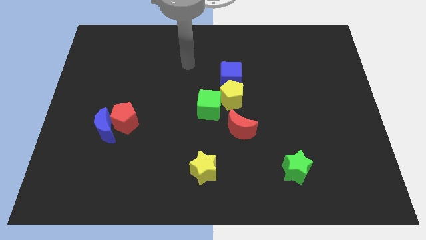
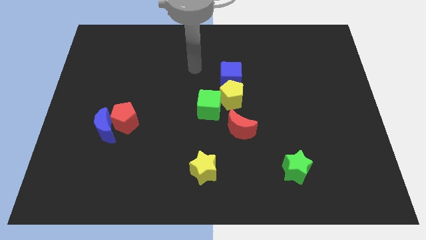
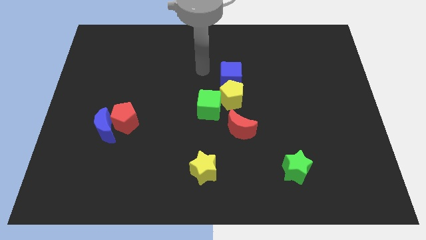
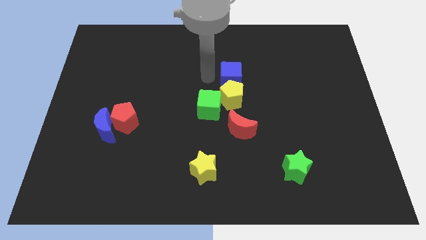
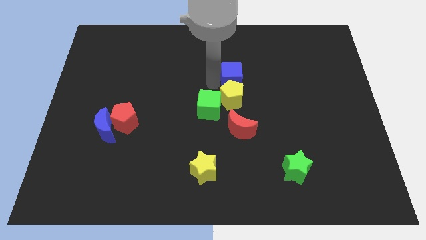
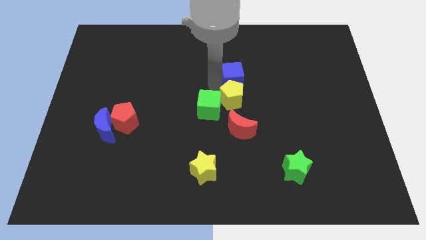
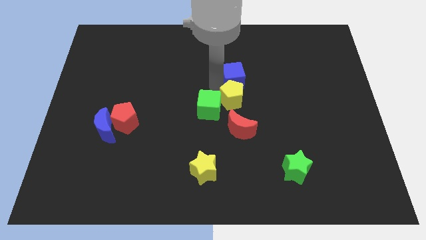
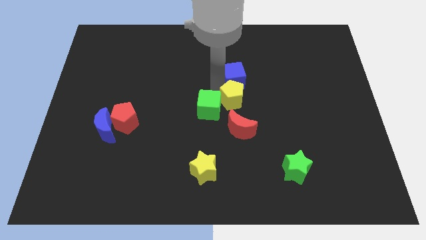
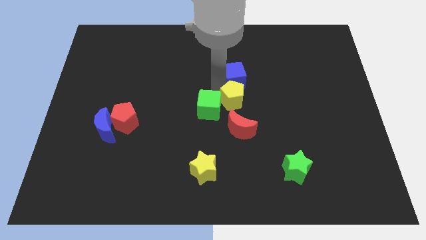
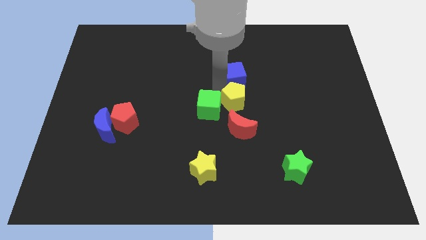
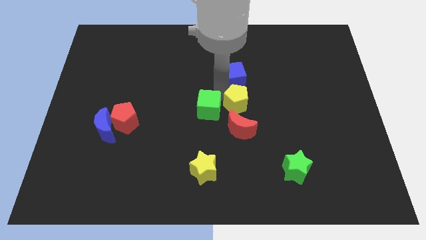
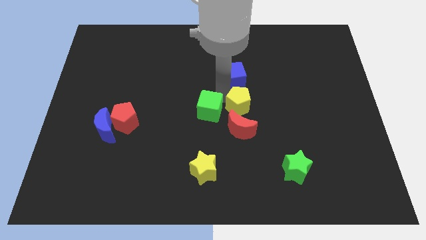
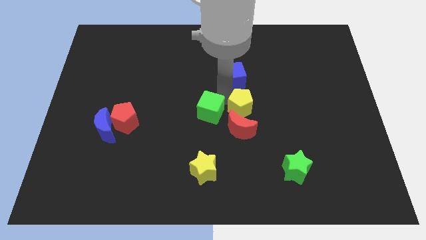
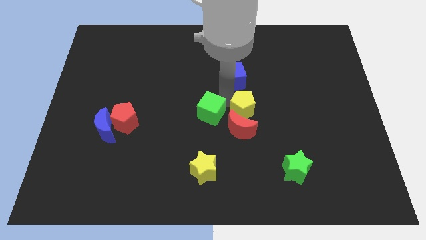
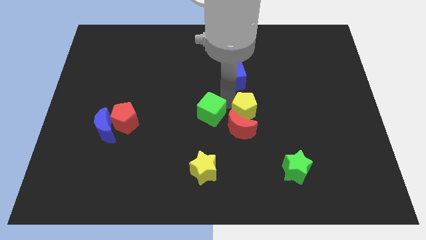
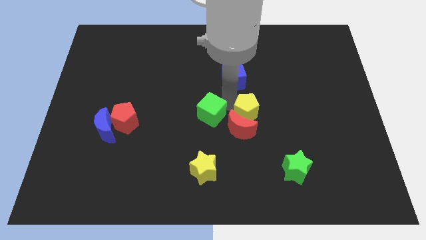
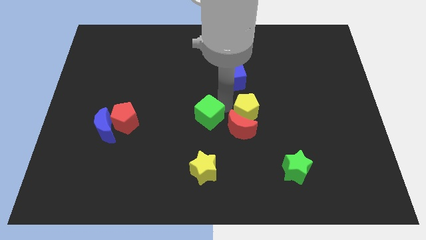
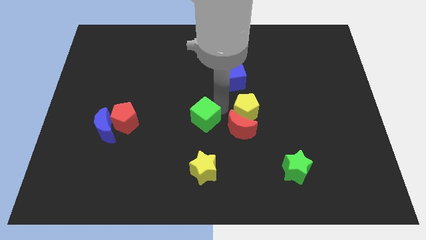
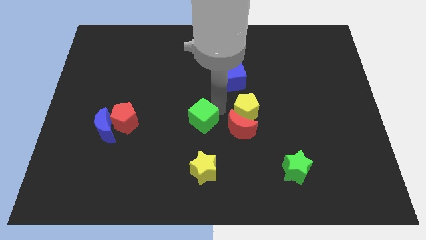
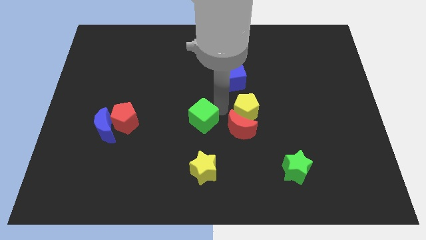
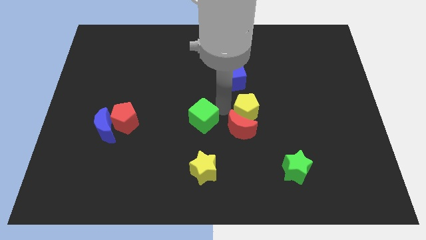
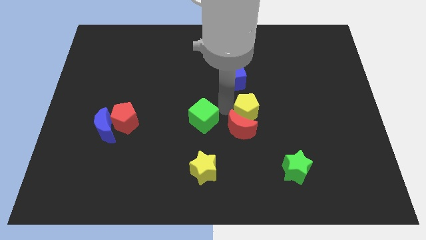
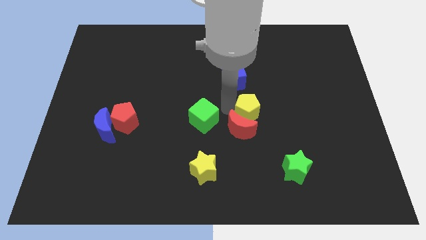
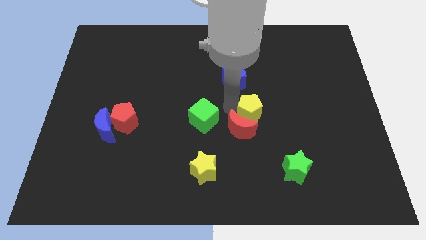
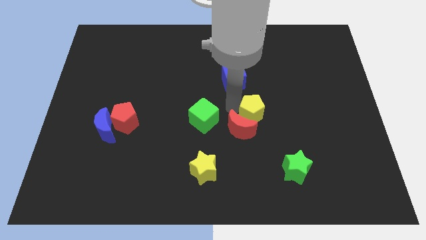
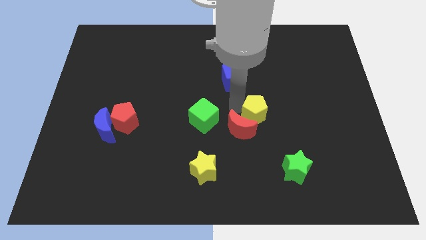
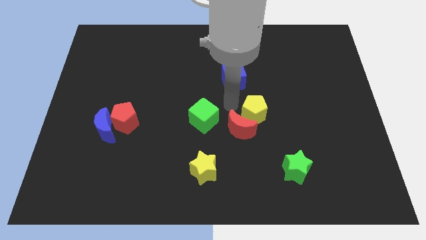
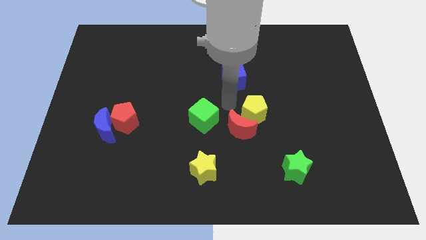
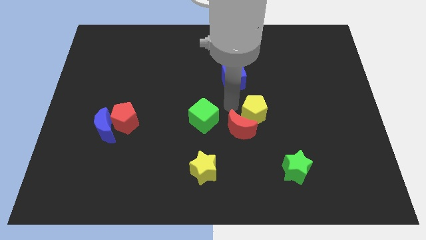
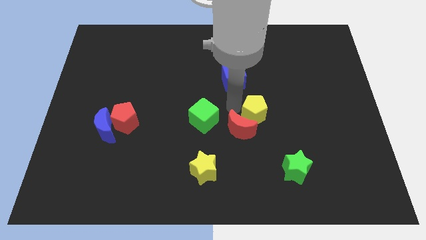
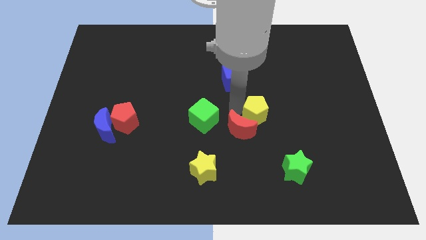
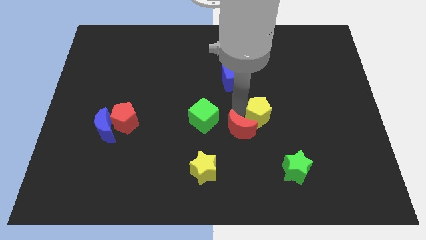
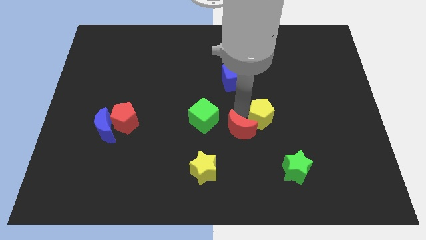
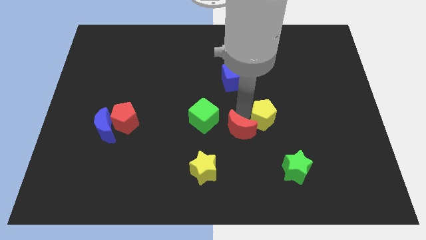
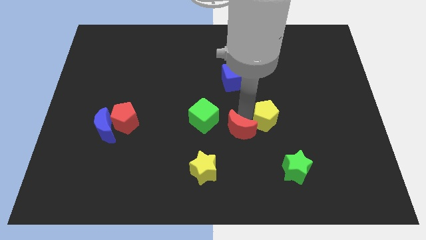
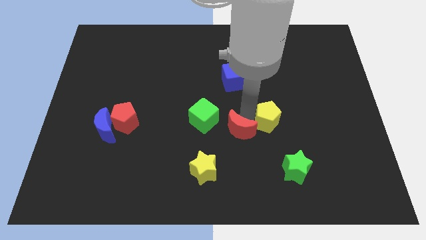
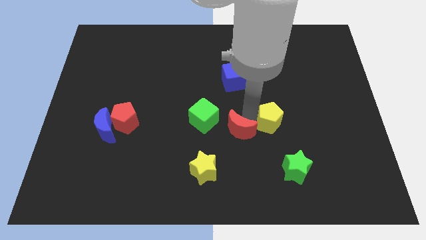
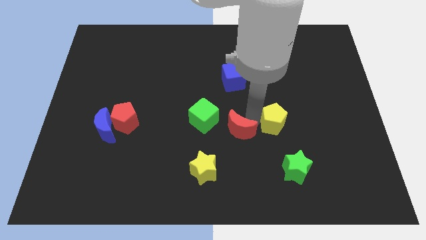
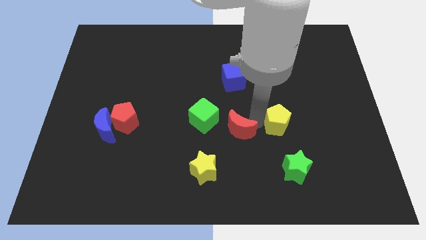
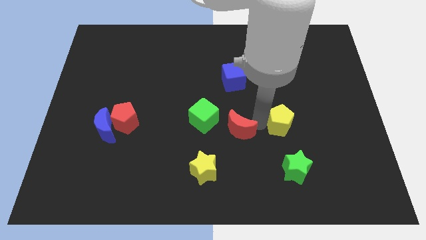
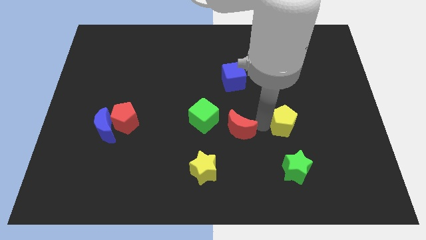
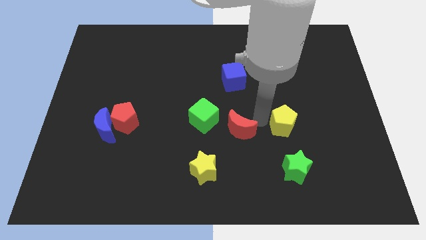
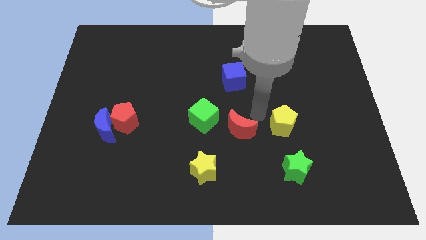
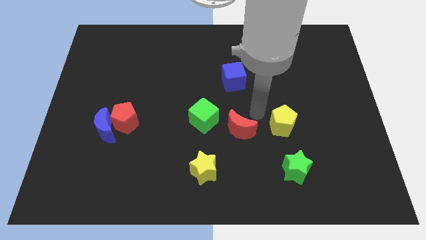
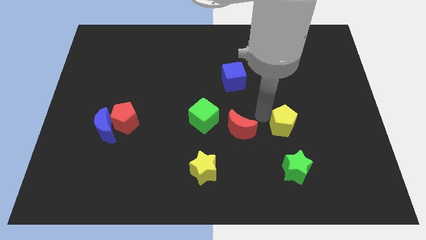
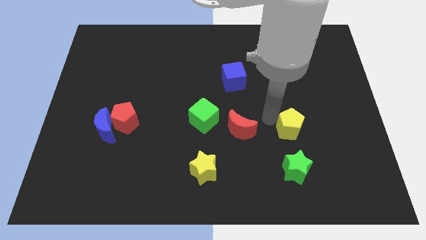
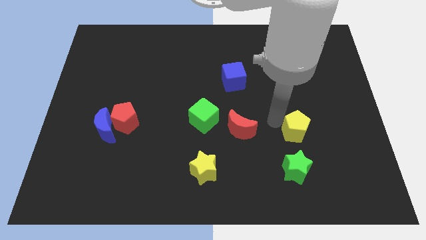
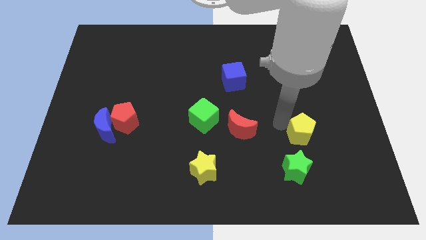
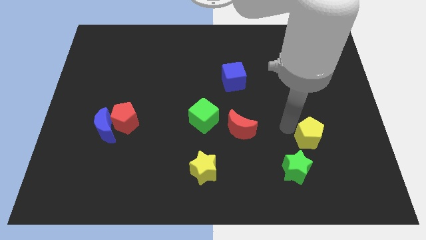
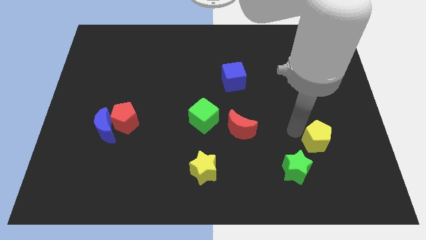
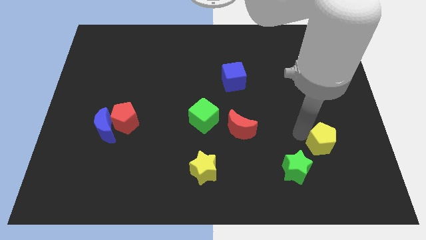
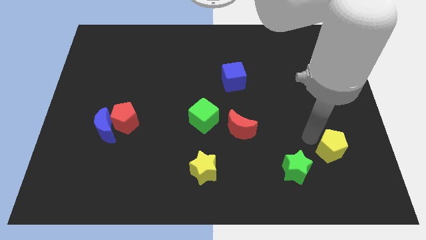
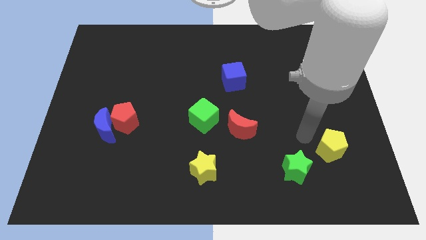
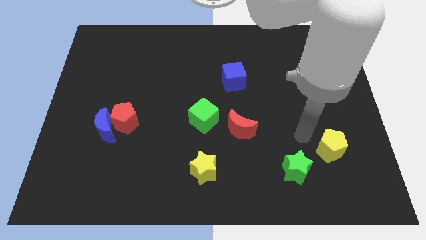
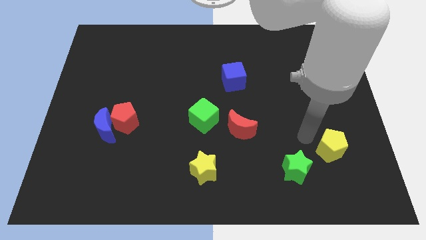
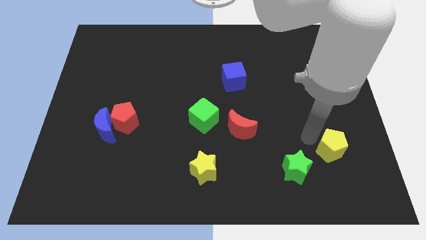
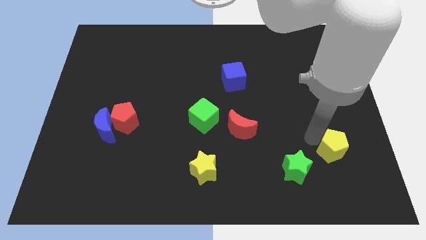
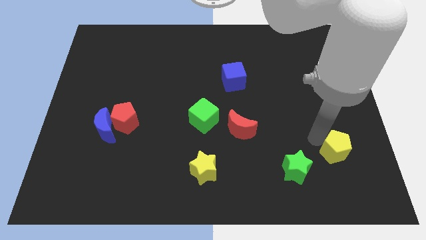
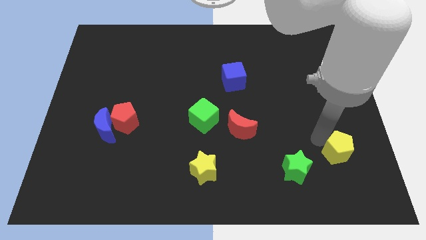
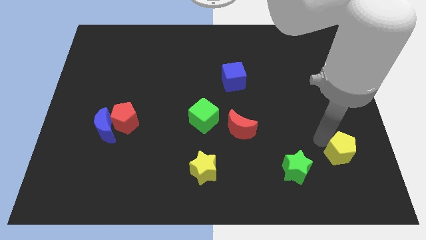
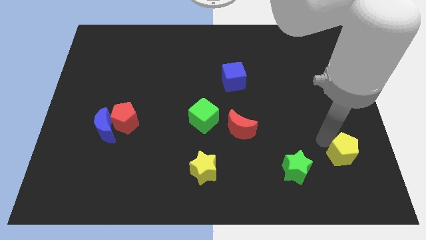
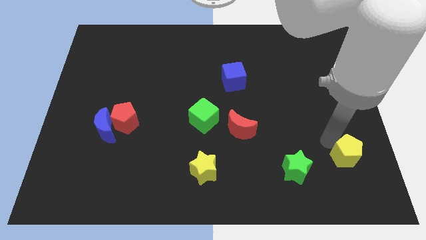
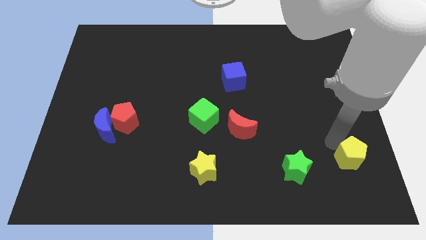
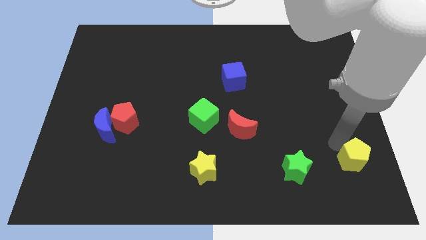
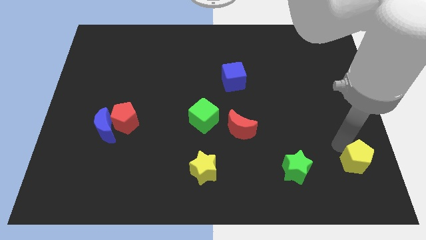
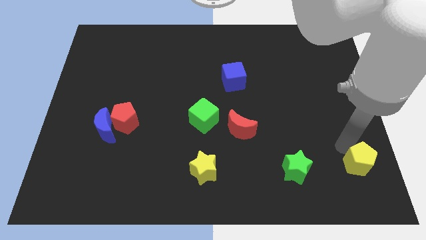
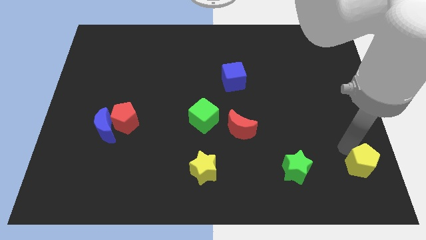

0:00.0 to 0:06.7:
slide the yellow pentagon to the bottom right of the board
